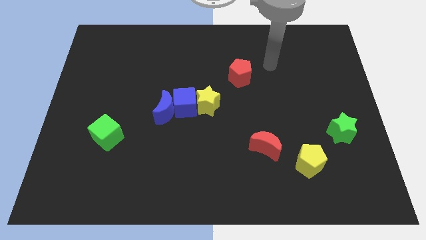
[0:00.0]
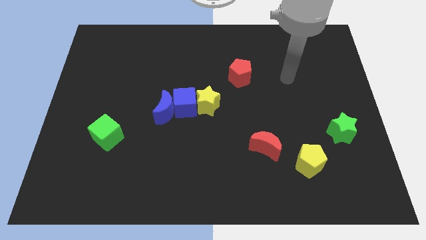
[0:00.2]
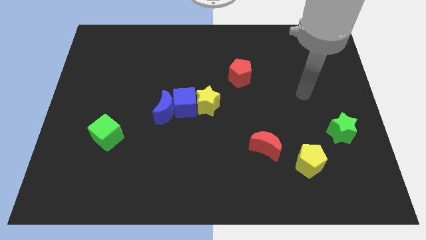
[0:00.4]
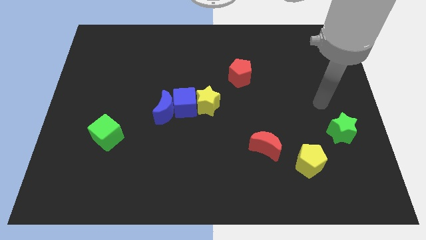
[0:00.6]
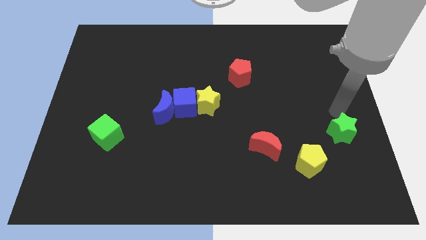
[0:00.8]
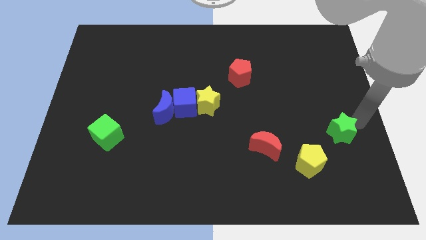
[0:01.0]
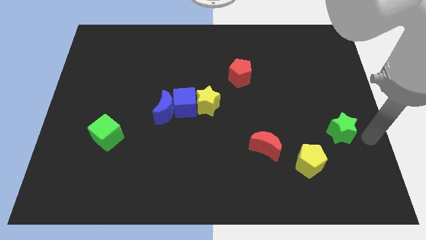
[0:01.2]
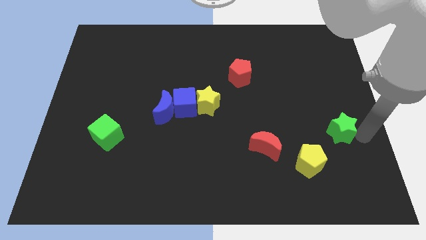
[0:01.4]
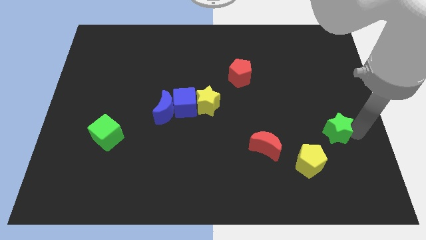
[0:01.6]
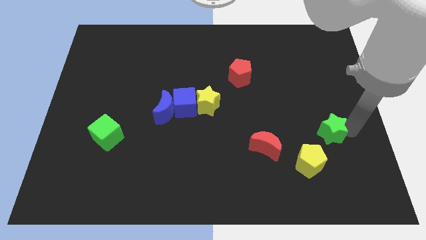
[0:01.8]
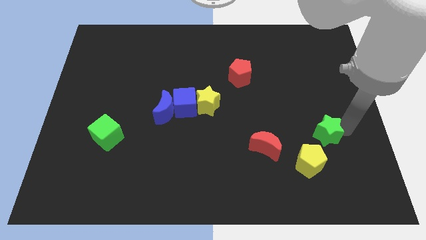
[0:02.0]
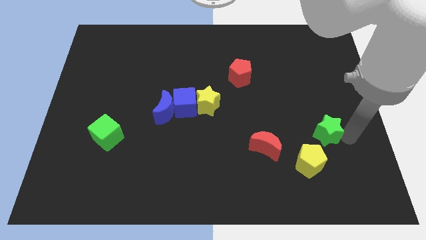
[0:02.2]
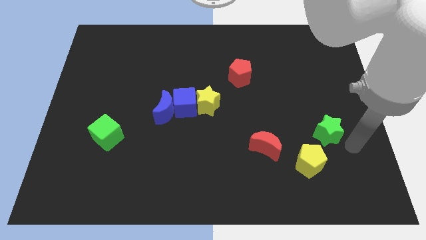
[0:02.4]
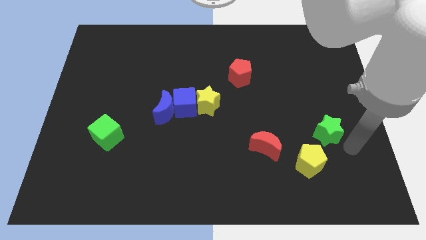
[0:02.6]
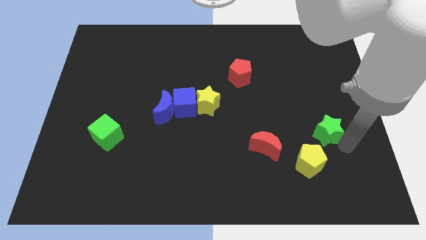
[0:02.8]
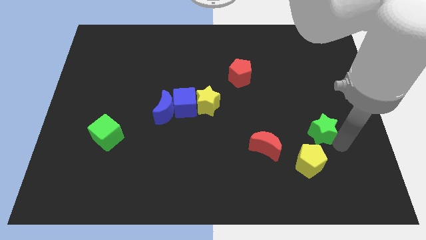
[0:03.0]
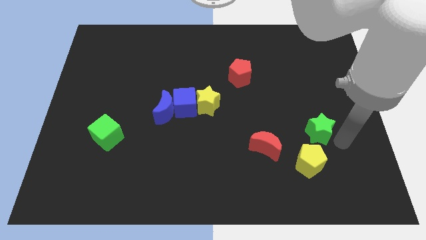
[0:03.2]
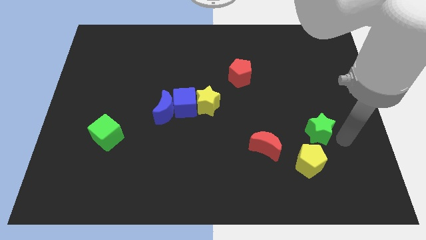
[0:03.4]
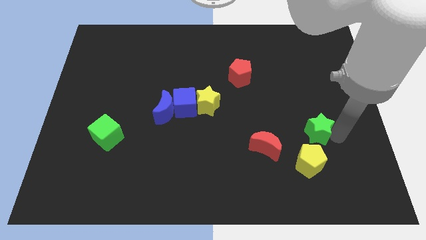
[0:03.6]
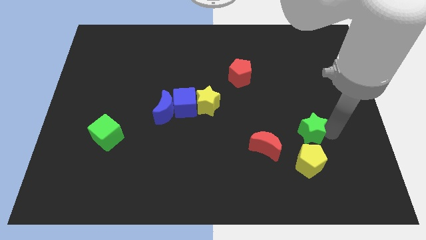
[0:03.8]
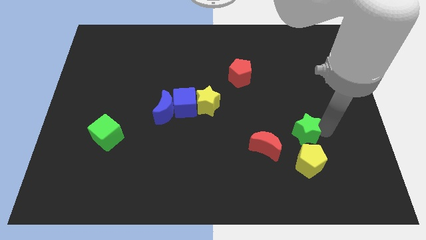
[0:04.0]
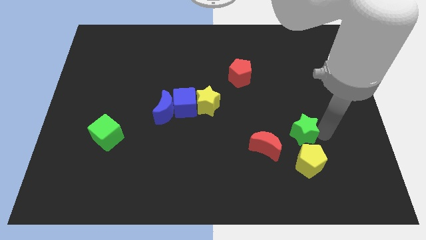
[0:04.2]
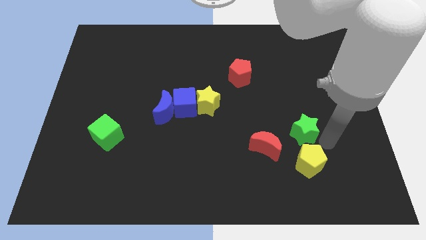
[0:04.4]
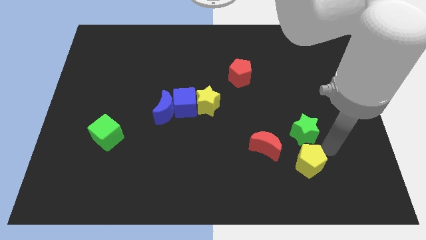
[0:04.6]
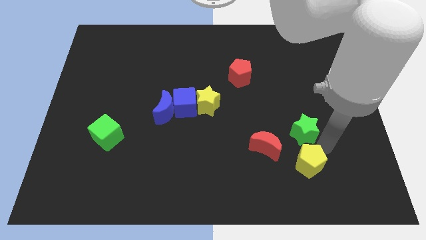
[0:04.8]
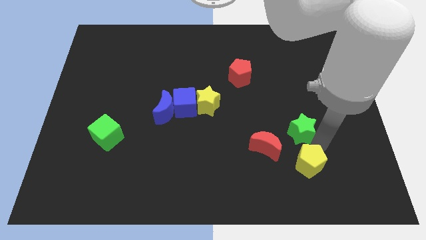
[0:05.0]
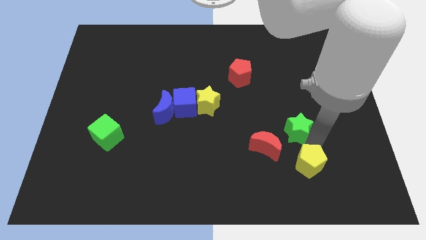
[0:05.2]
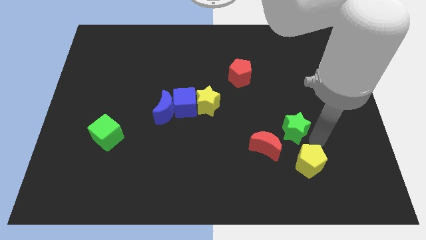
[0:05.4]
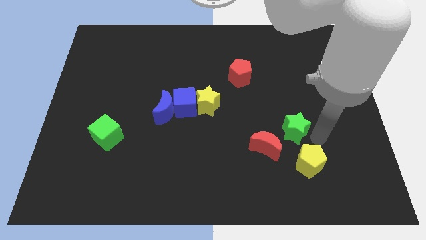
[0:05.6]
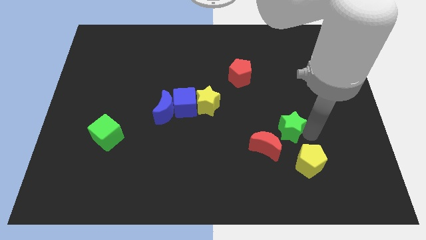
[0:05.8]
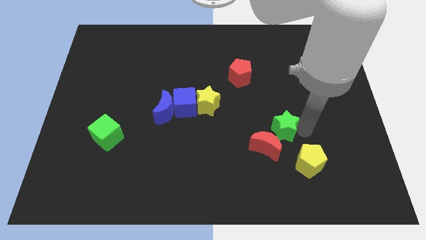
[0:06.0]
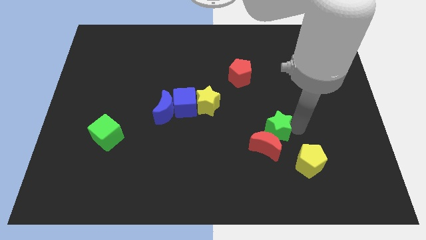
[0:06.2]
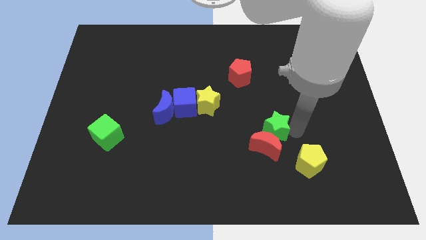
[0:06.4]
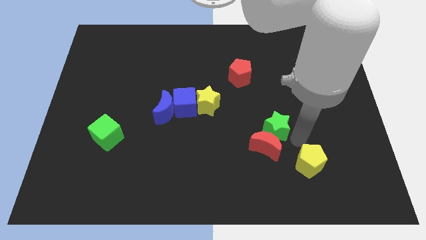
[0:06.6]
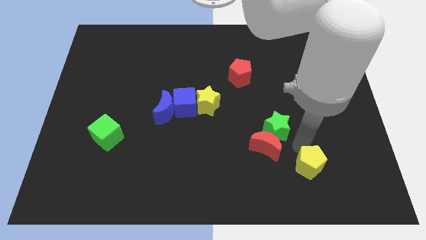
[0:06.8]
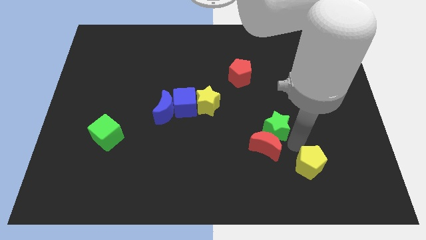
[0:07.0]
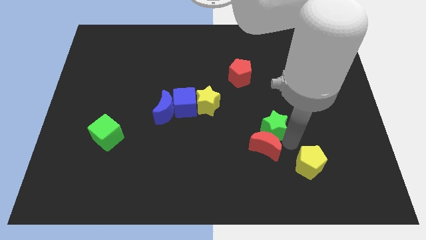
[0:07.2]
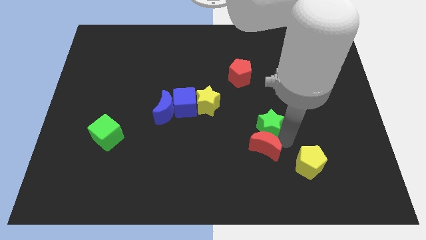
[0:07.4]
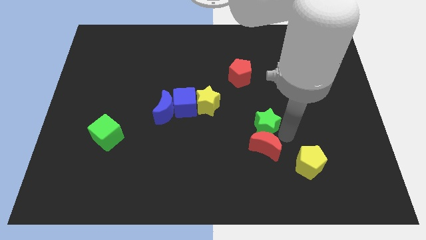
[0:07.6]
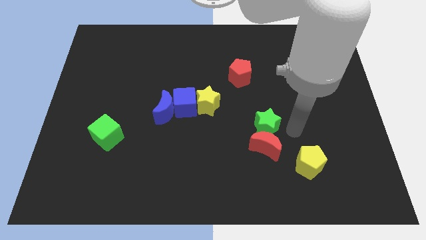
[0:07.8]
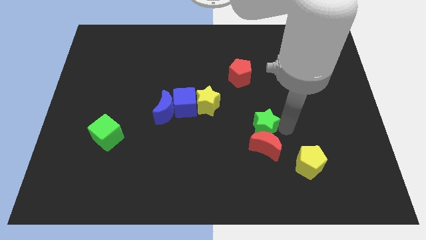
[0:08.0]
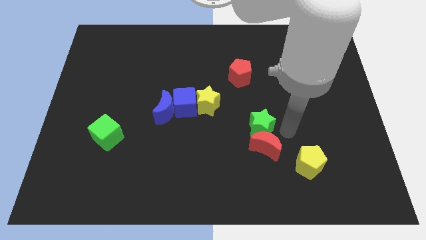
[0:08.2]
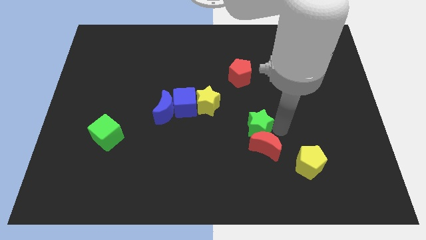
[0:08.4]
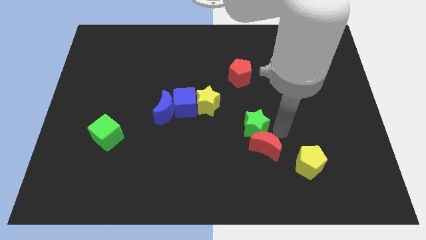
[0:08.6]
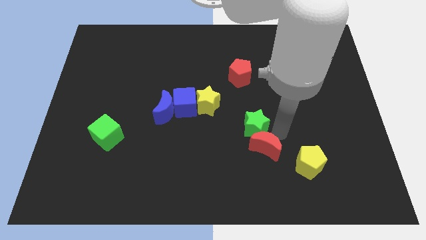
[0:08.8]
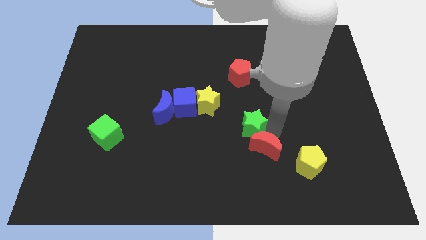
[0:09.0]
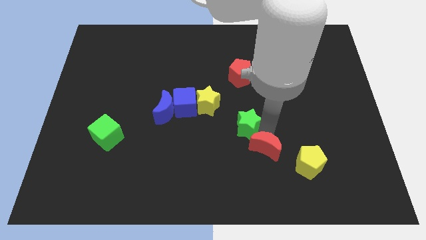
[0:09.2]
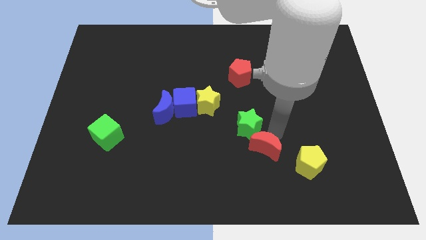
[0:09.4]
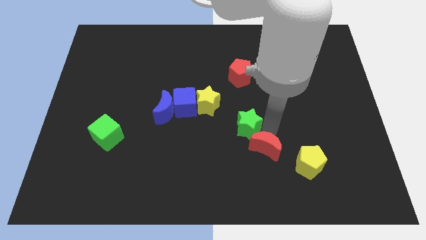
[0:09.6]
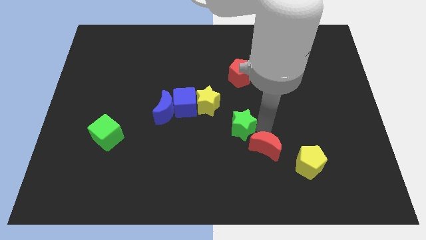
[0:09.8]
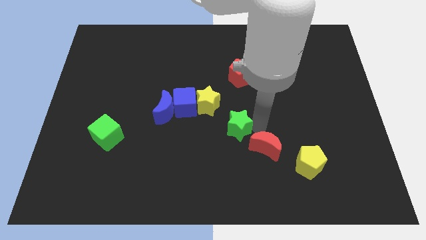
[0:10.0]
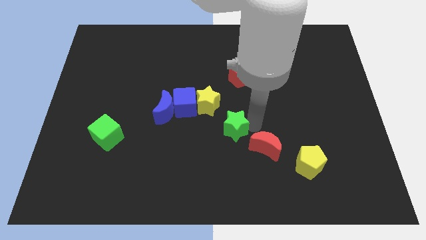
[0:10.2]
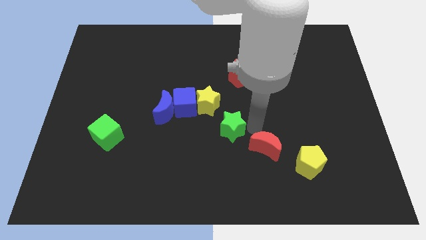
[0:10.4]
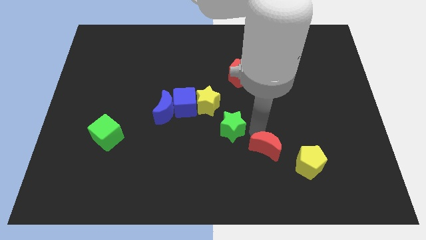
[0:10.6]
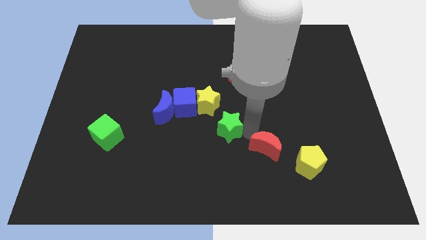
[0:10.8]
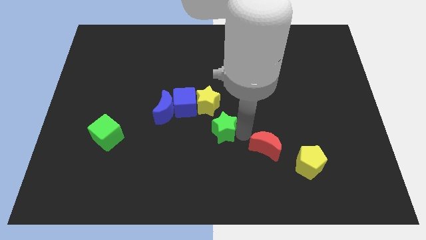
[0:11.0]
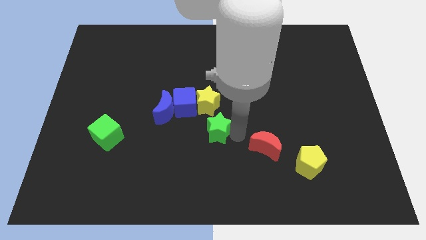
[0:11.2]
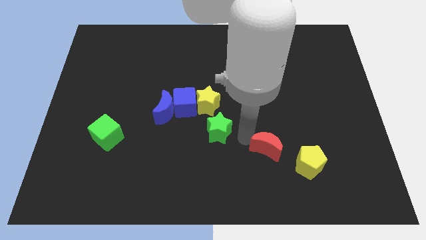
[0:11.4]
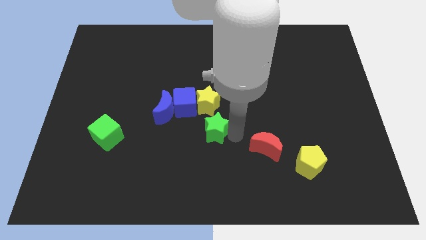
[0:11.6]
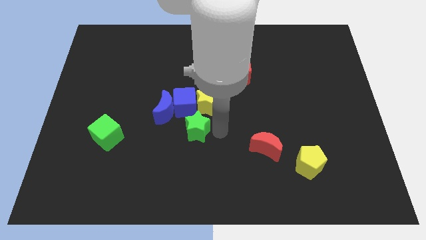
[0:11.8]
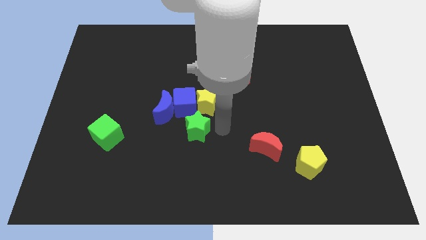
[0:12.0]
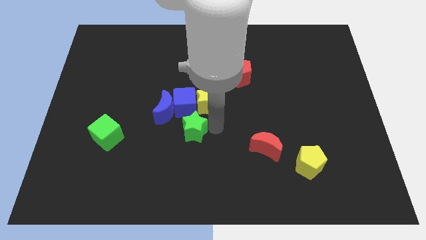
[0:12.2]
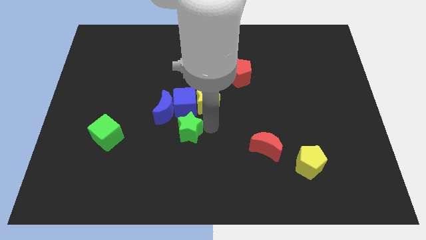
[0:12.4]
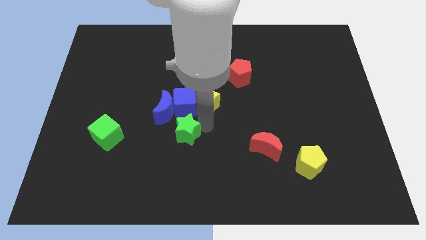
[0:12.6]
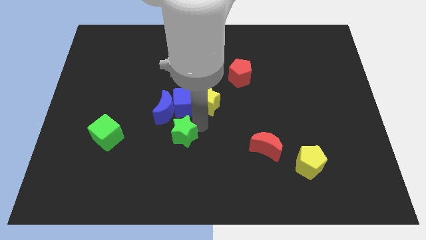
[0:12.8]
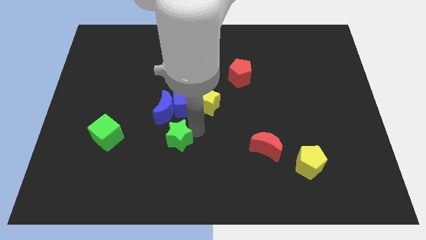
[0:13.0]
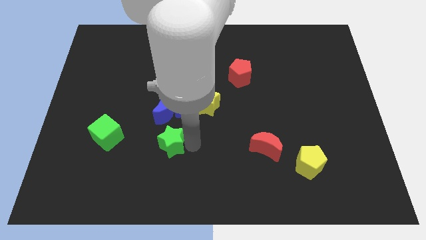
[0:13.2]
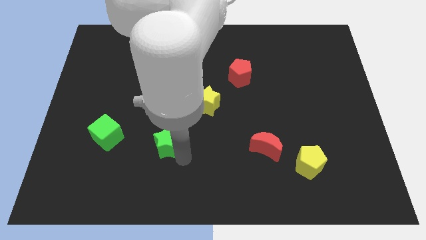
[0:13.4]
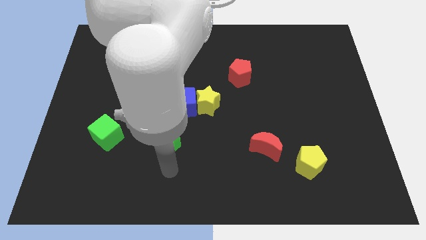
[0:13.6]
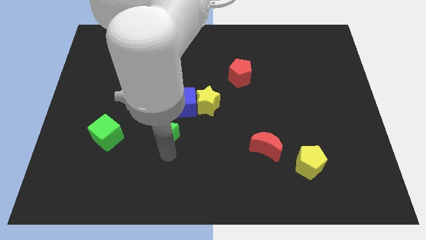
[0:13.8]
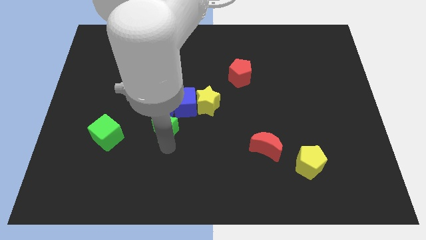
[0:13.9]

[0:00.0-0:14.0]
move the green star to the blue moon
